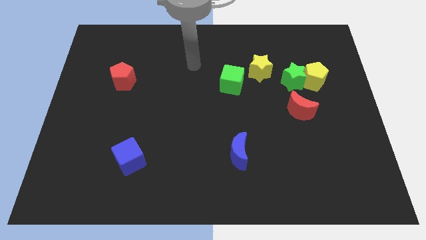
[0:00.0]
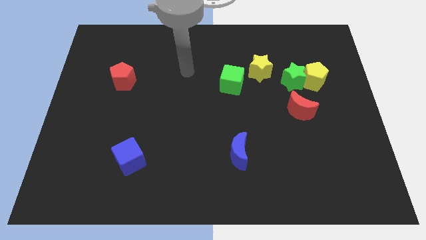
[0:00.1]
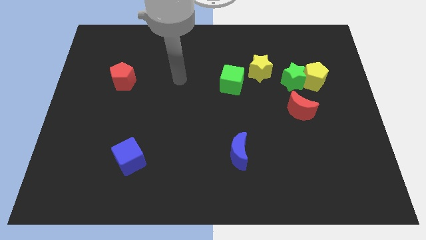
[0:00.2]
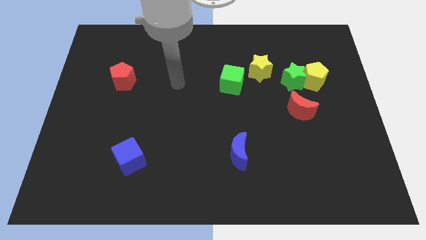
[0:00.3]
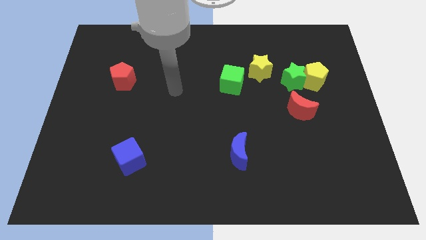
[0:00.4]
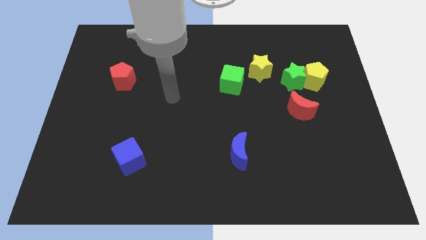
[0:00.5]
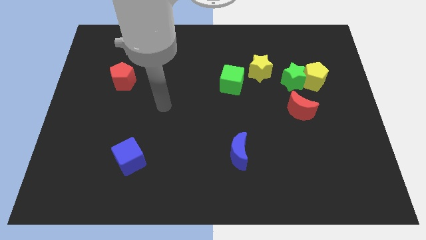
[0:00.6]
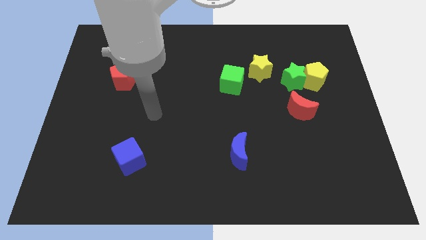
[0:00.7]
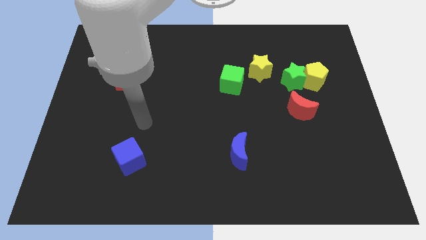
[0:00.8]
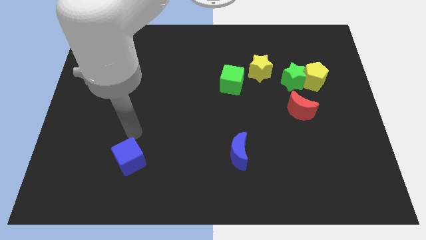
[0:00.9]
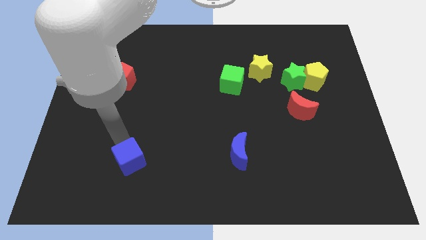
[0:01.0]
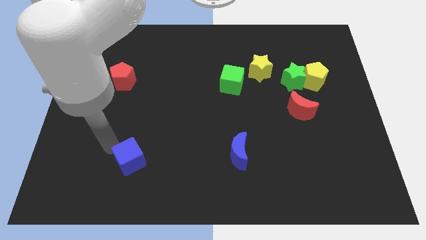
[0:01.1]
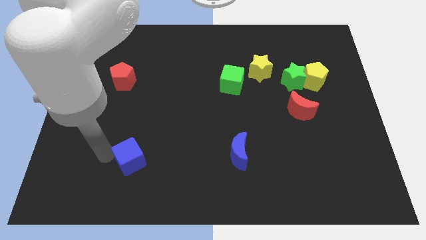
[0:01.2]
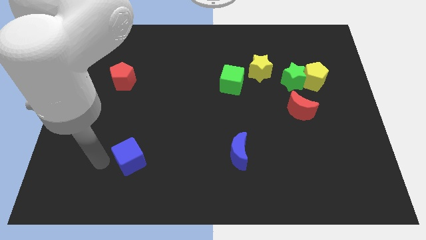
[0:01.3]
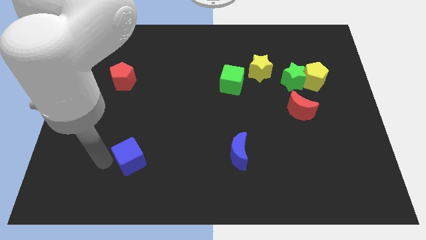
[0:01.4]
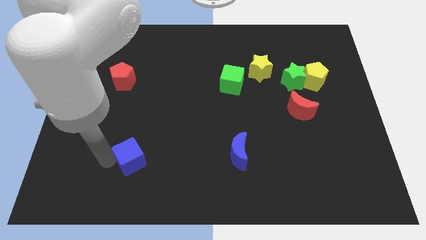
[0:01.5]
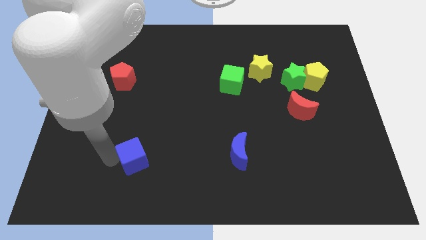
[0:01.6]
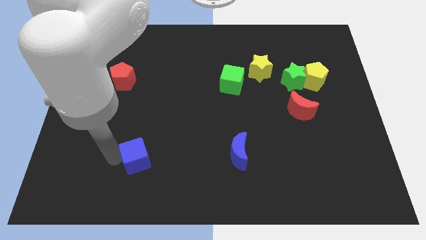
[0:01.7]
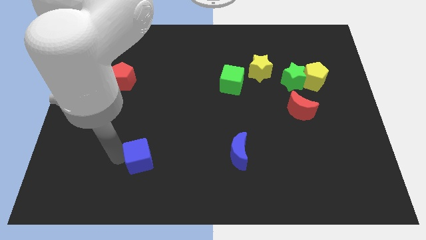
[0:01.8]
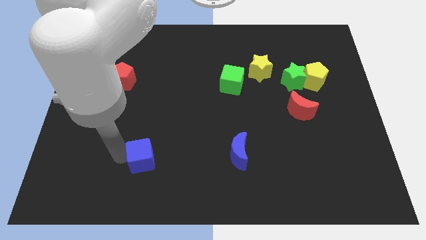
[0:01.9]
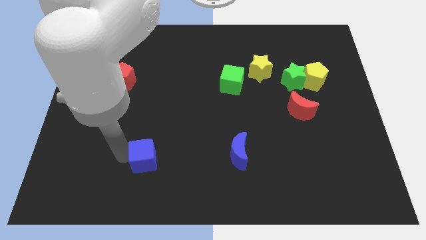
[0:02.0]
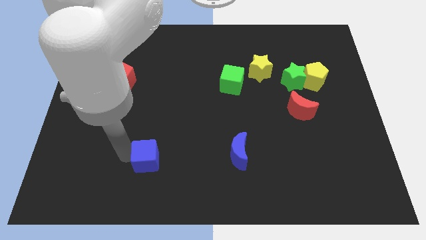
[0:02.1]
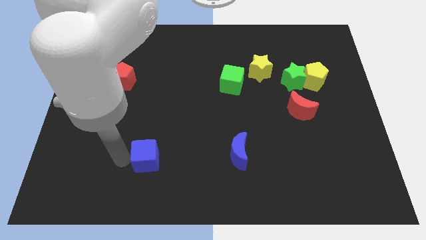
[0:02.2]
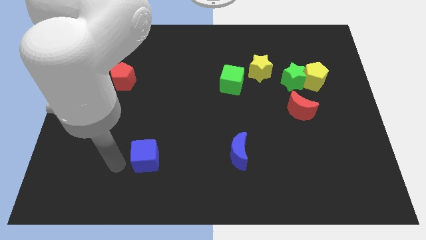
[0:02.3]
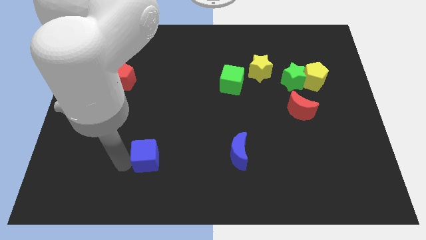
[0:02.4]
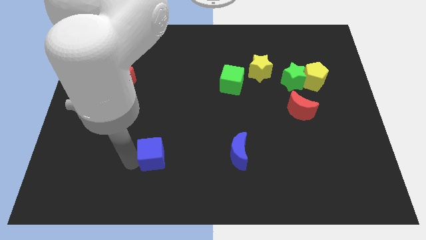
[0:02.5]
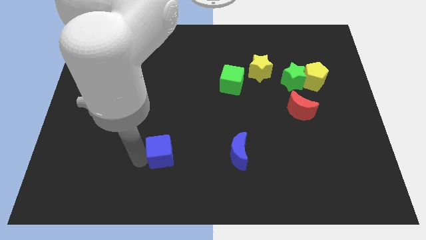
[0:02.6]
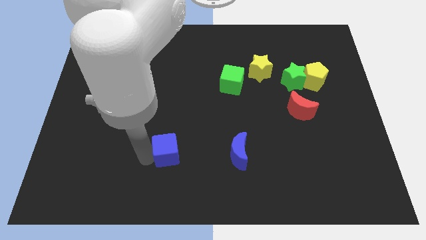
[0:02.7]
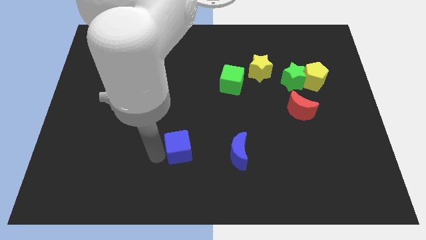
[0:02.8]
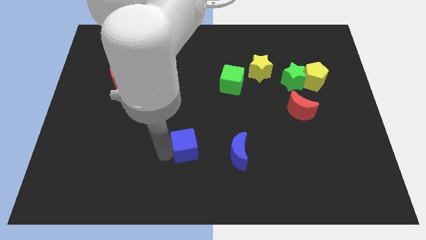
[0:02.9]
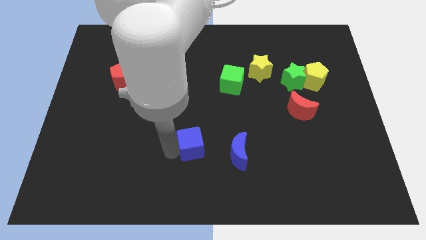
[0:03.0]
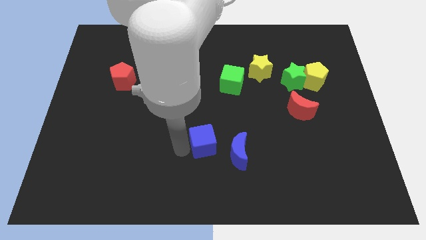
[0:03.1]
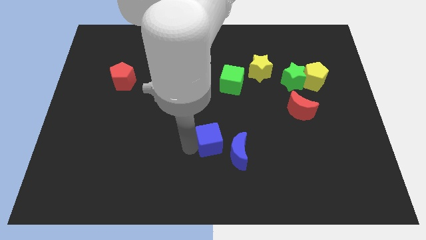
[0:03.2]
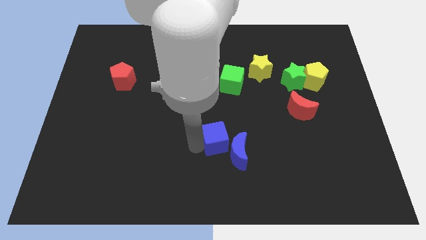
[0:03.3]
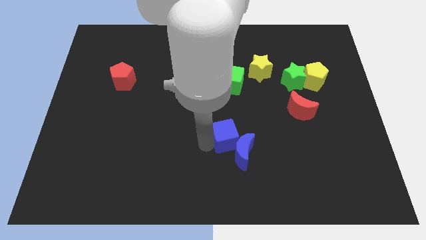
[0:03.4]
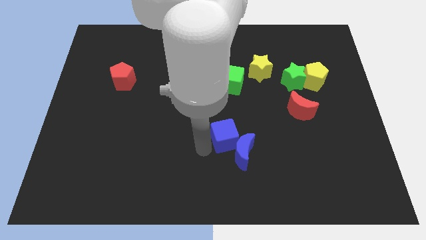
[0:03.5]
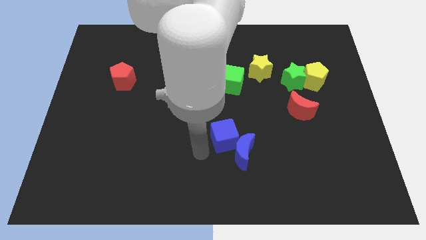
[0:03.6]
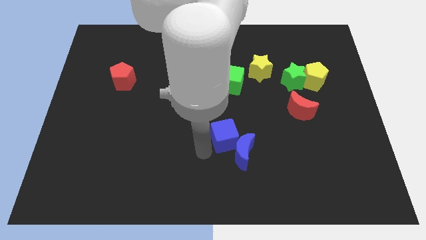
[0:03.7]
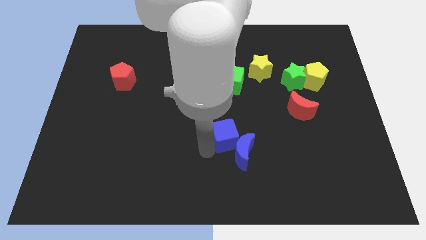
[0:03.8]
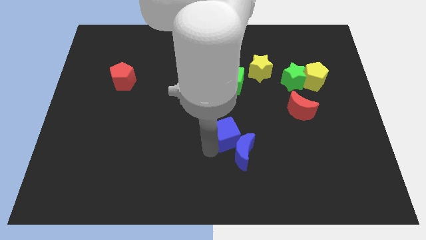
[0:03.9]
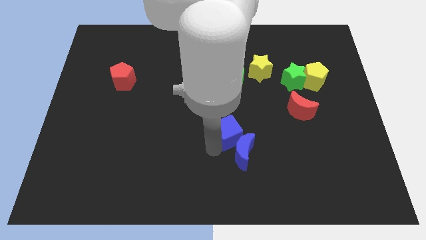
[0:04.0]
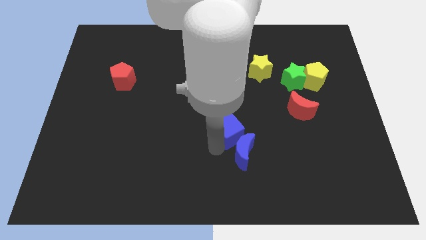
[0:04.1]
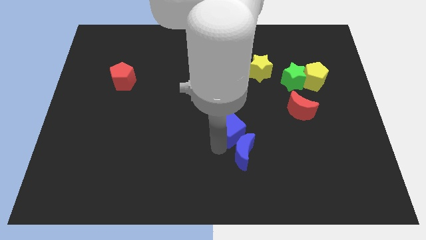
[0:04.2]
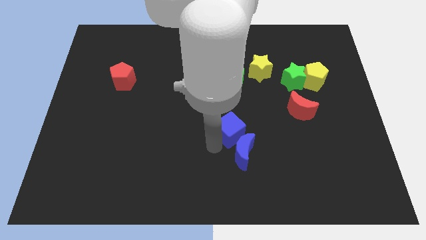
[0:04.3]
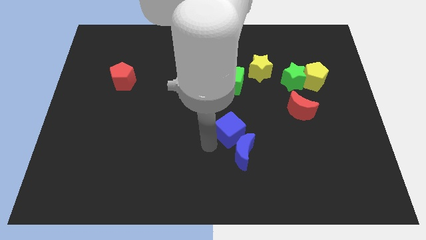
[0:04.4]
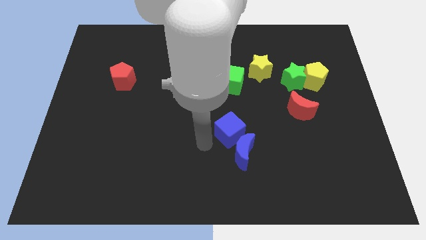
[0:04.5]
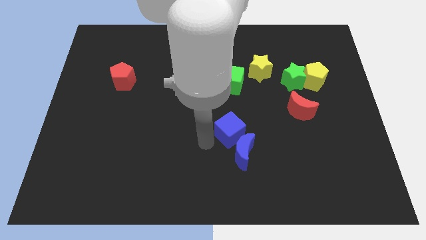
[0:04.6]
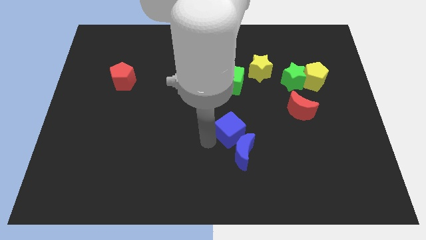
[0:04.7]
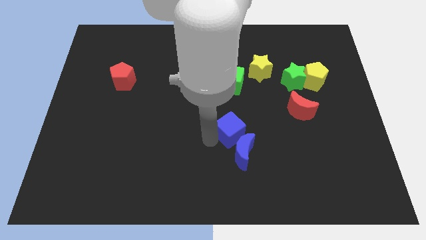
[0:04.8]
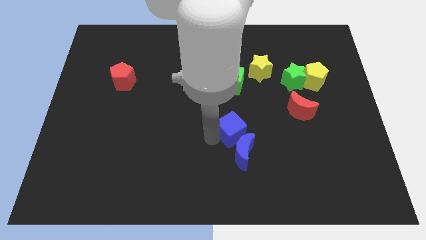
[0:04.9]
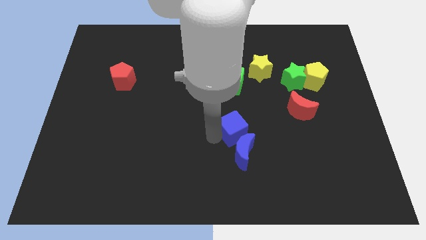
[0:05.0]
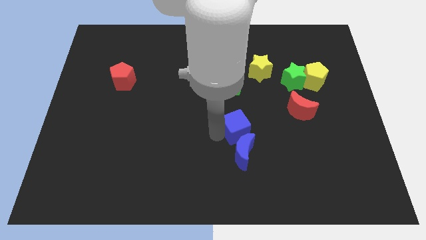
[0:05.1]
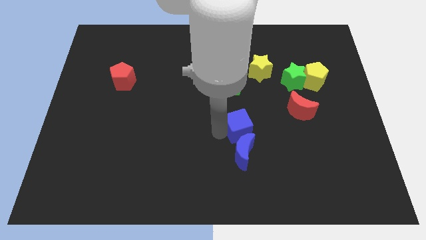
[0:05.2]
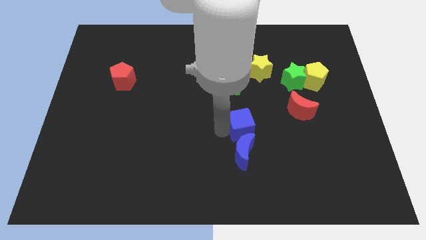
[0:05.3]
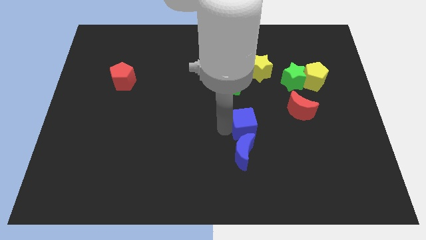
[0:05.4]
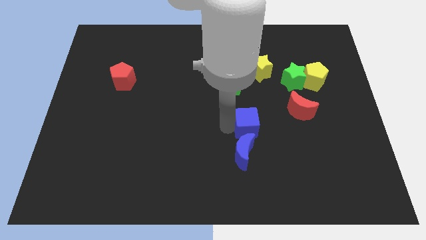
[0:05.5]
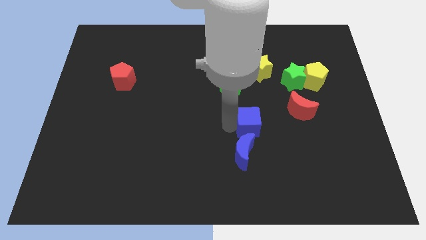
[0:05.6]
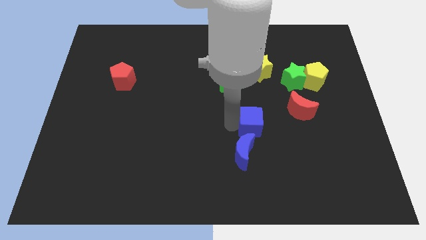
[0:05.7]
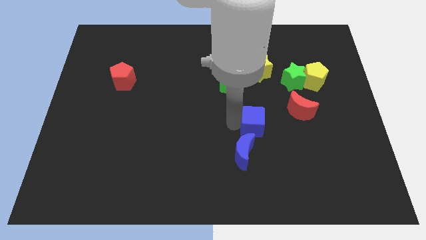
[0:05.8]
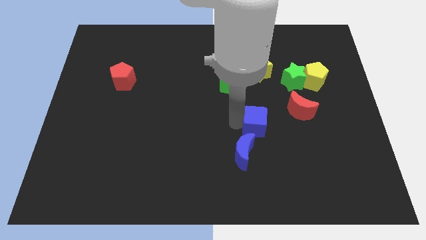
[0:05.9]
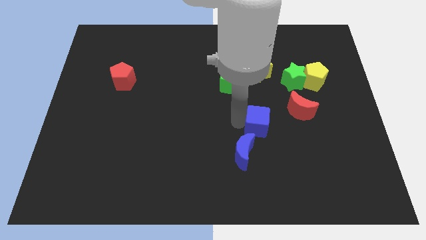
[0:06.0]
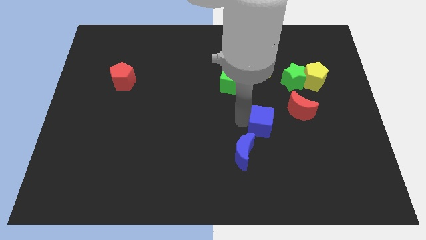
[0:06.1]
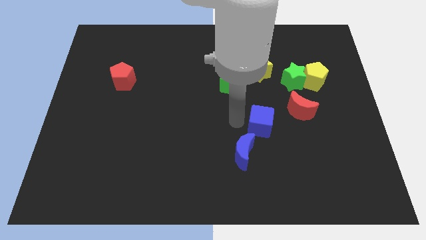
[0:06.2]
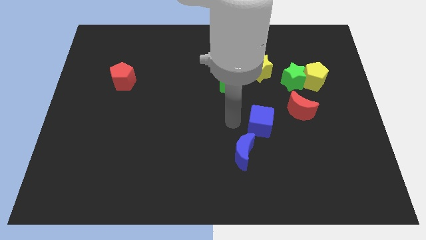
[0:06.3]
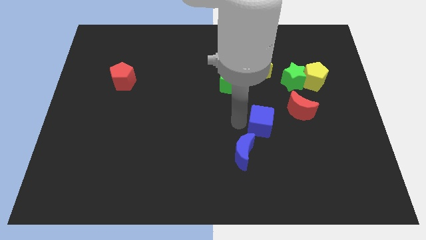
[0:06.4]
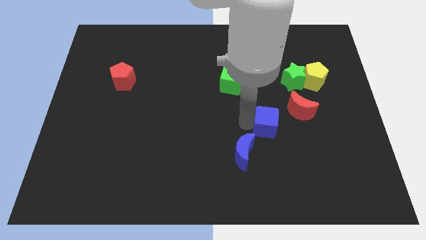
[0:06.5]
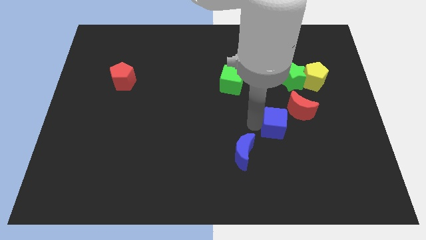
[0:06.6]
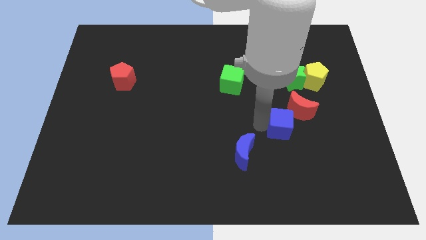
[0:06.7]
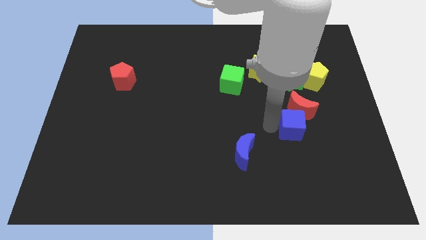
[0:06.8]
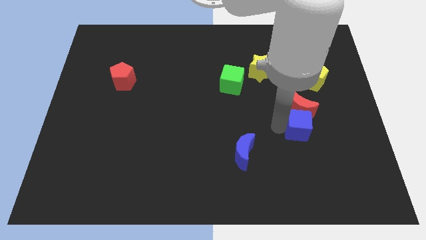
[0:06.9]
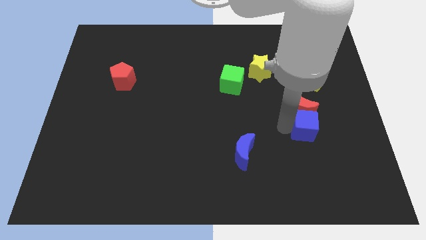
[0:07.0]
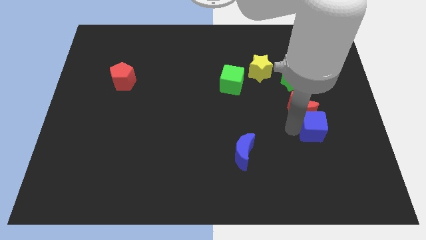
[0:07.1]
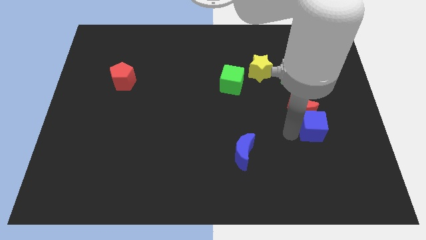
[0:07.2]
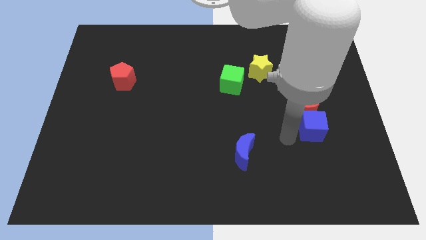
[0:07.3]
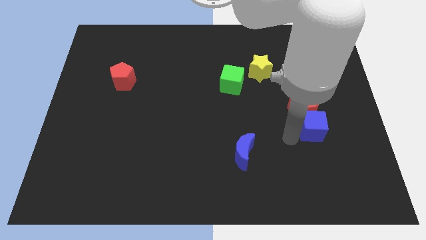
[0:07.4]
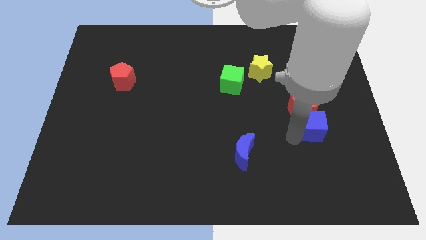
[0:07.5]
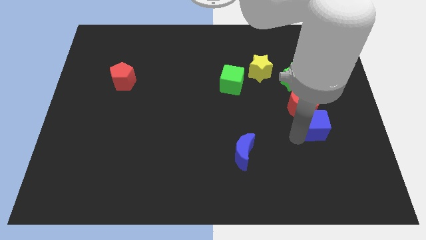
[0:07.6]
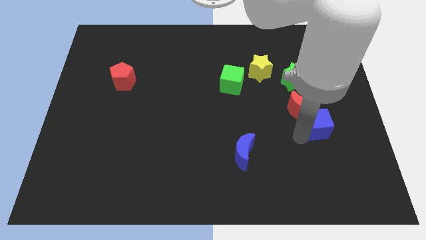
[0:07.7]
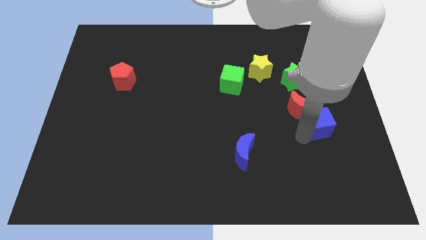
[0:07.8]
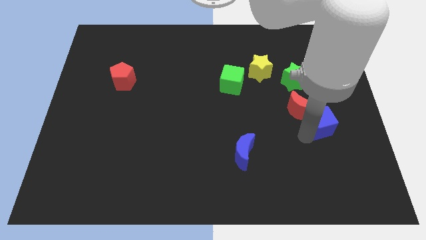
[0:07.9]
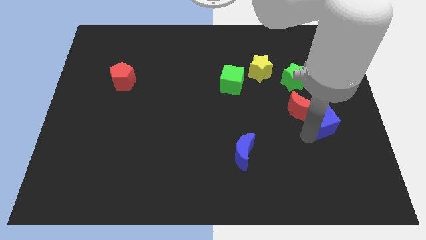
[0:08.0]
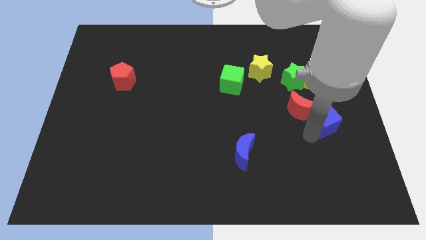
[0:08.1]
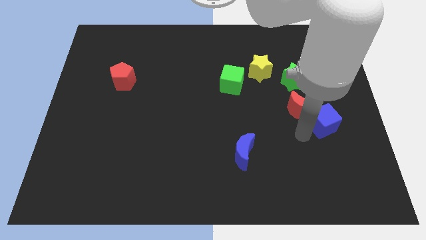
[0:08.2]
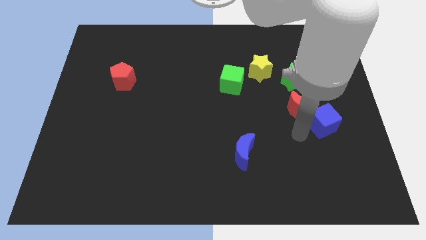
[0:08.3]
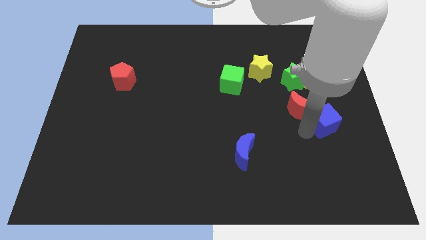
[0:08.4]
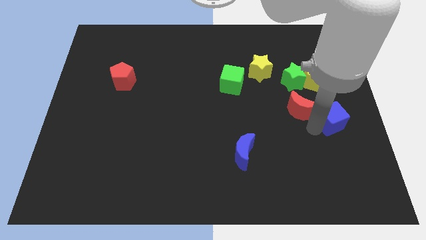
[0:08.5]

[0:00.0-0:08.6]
move the blue cube to the right side of the board
